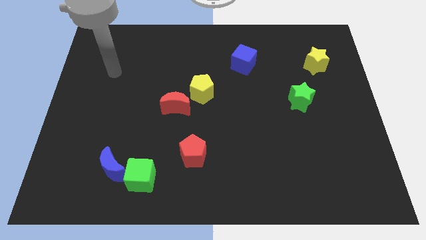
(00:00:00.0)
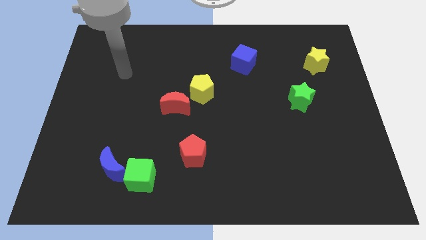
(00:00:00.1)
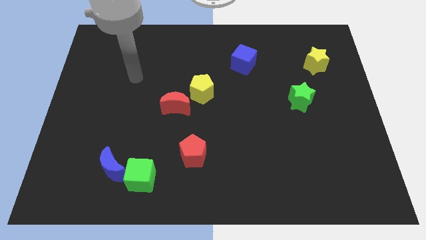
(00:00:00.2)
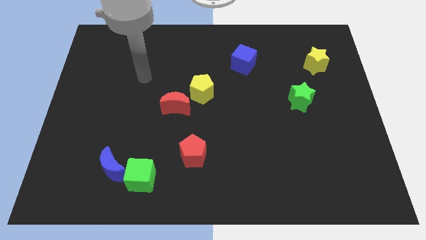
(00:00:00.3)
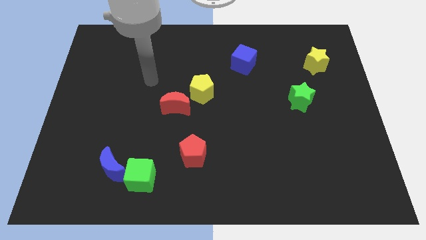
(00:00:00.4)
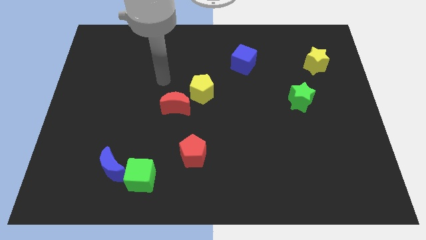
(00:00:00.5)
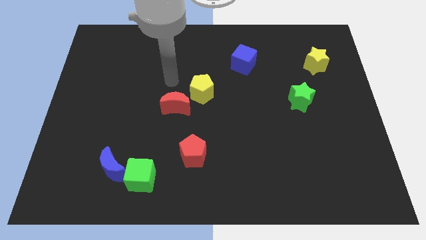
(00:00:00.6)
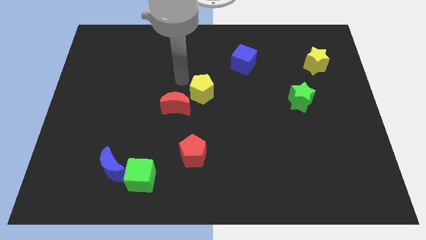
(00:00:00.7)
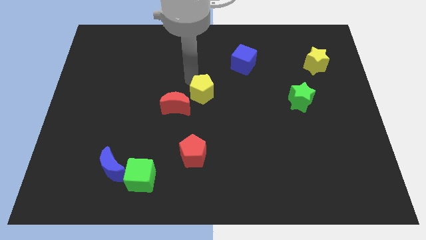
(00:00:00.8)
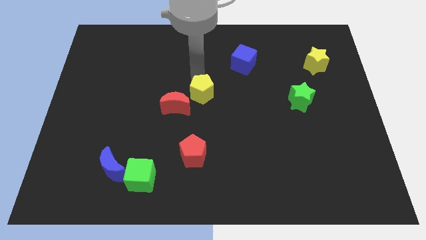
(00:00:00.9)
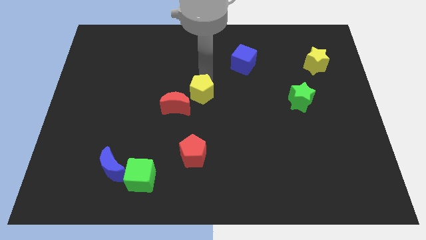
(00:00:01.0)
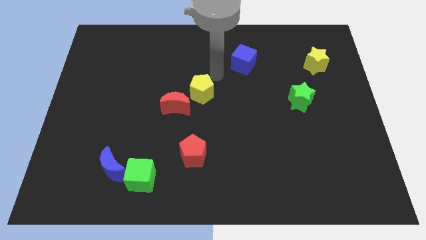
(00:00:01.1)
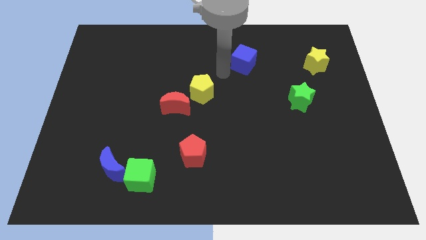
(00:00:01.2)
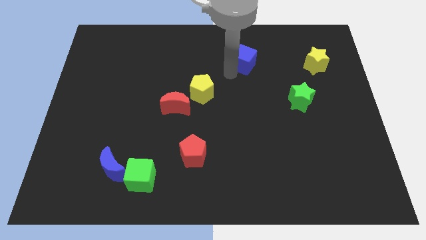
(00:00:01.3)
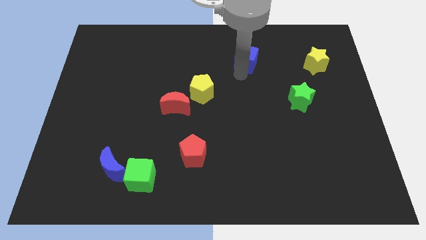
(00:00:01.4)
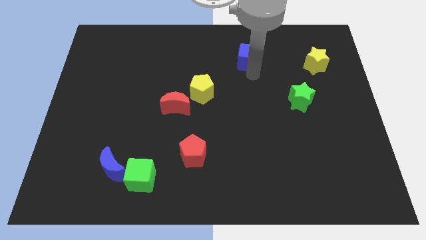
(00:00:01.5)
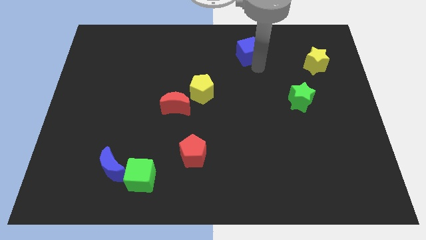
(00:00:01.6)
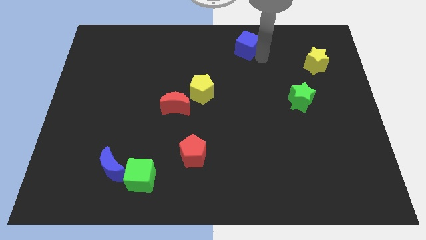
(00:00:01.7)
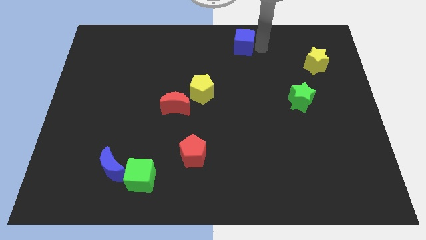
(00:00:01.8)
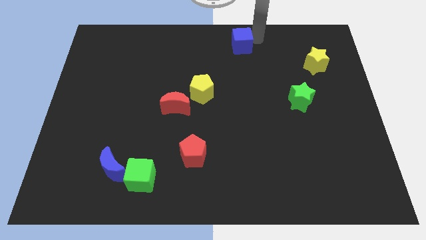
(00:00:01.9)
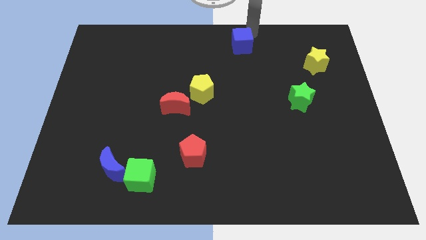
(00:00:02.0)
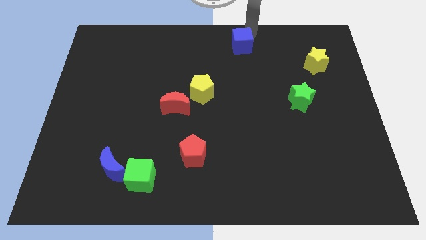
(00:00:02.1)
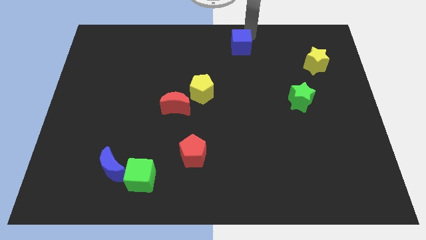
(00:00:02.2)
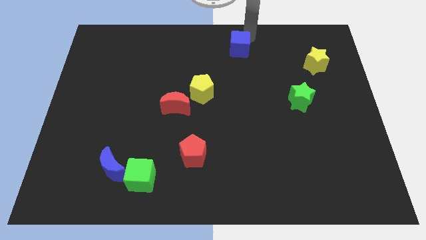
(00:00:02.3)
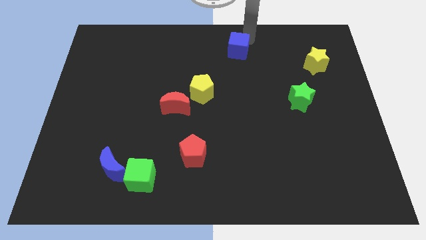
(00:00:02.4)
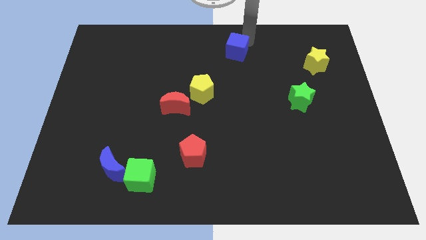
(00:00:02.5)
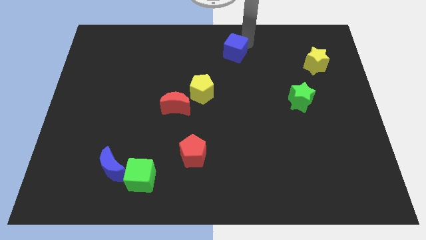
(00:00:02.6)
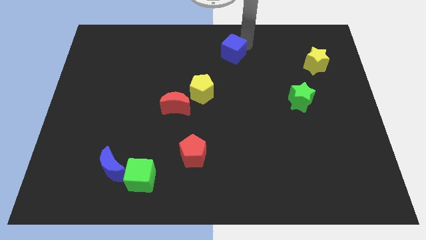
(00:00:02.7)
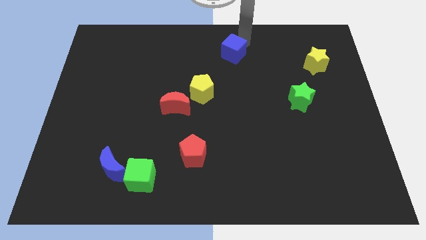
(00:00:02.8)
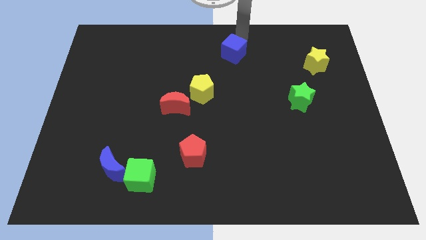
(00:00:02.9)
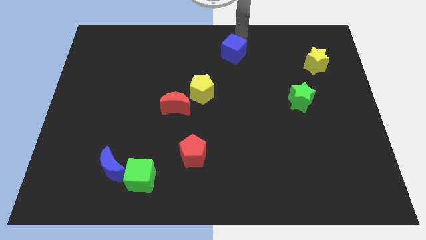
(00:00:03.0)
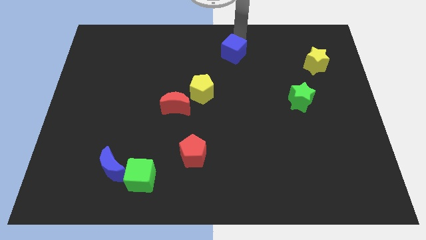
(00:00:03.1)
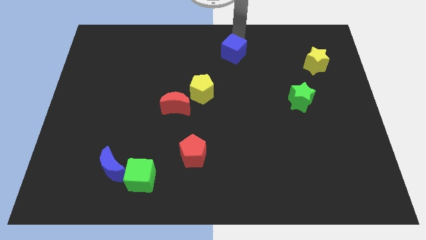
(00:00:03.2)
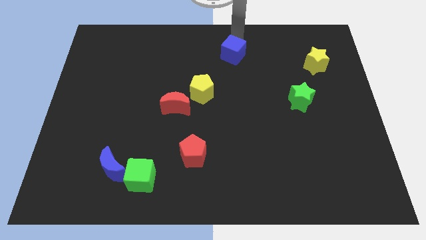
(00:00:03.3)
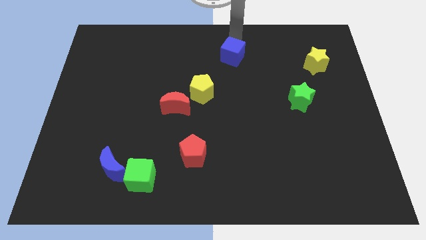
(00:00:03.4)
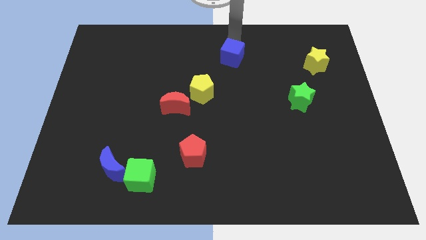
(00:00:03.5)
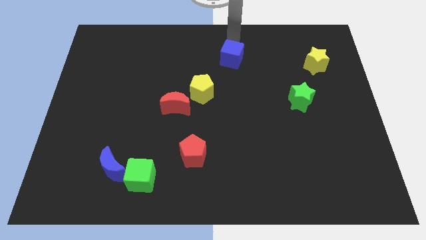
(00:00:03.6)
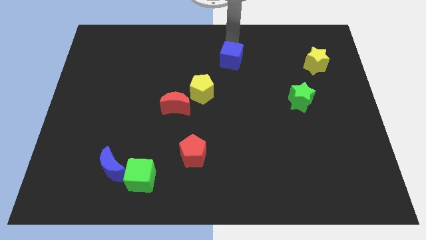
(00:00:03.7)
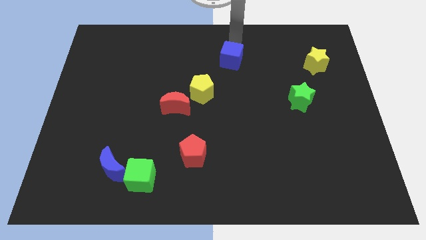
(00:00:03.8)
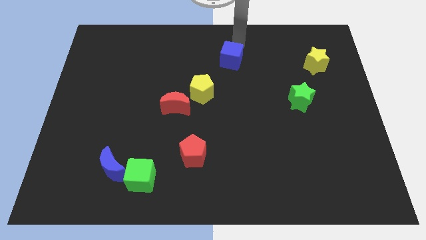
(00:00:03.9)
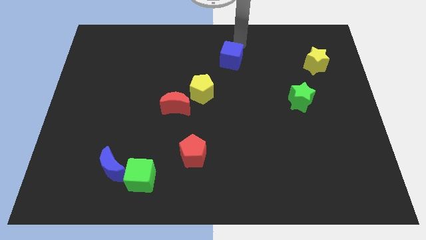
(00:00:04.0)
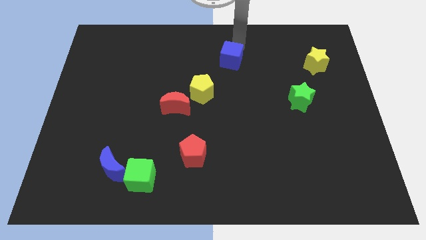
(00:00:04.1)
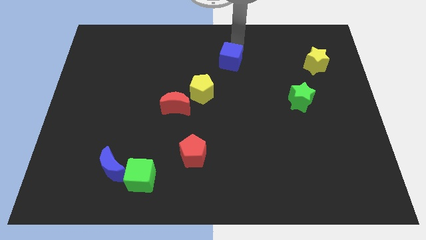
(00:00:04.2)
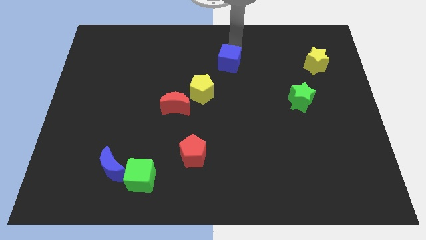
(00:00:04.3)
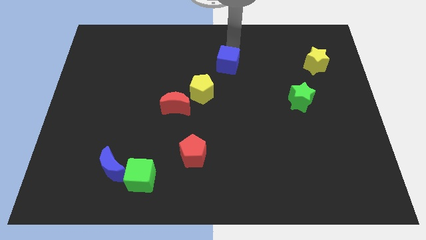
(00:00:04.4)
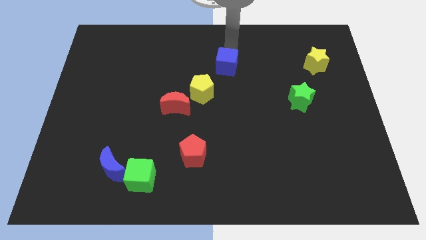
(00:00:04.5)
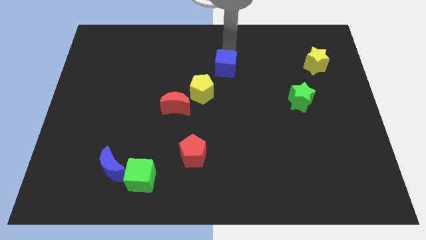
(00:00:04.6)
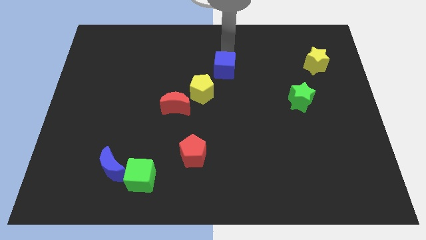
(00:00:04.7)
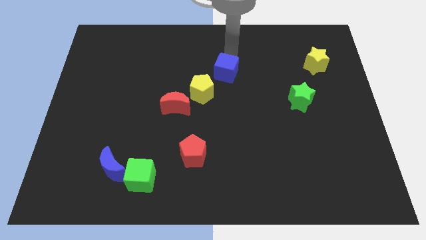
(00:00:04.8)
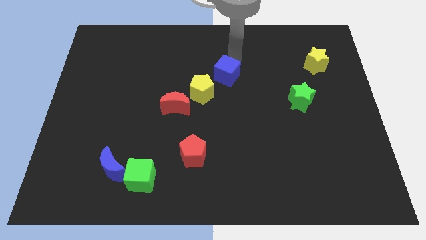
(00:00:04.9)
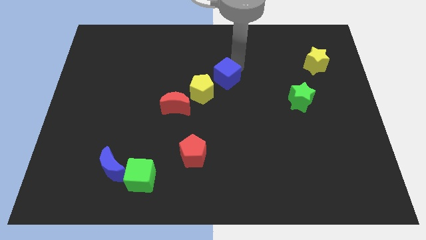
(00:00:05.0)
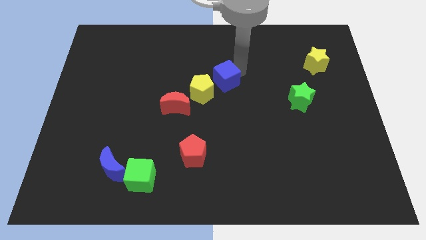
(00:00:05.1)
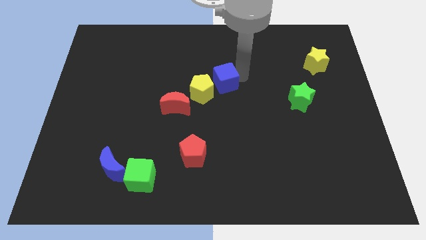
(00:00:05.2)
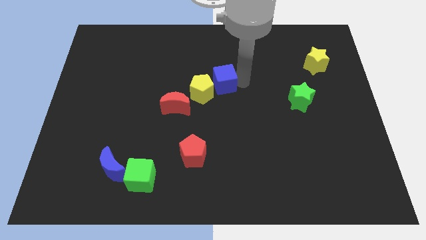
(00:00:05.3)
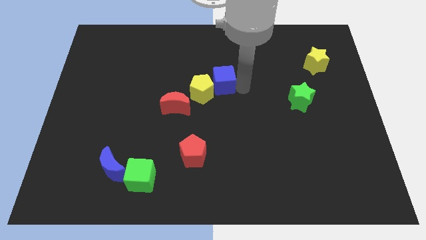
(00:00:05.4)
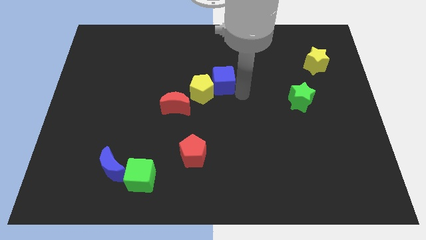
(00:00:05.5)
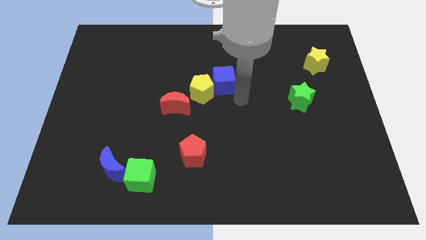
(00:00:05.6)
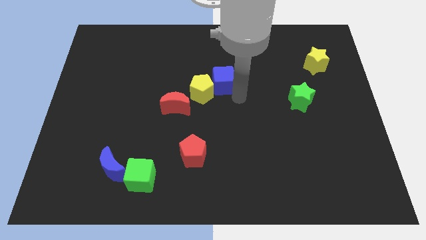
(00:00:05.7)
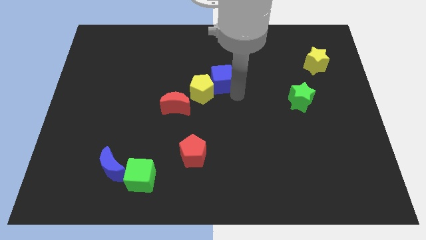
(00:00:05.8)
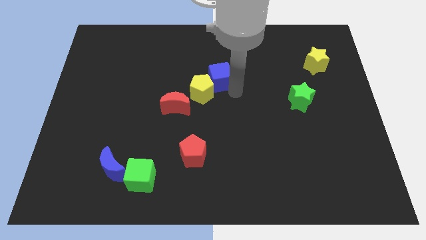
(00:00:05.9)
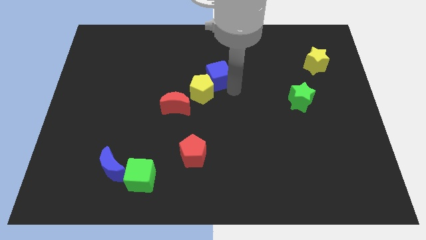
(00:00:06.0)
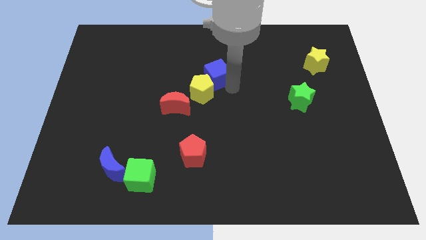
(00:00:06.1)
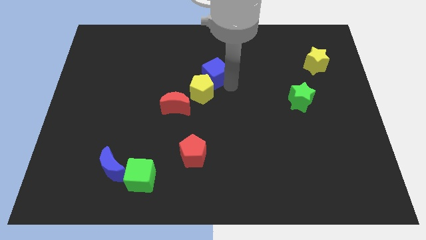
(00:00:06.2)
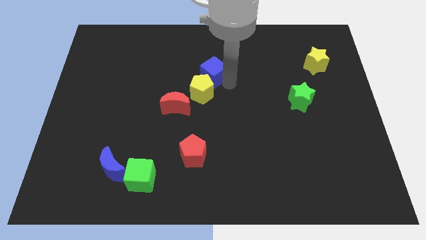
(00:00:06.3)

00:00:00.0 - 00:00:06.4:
slide the blue cube left slightly

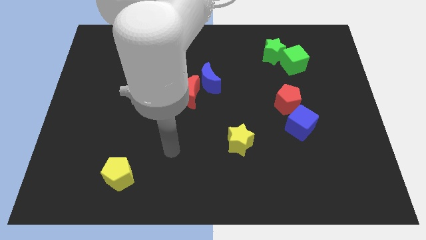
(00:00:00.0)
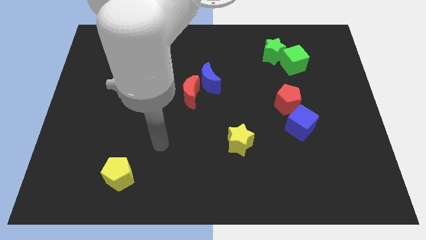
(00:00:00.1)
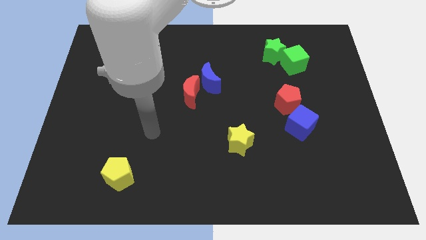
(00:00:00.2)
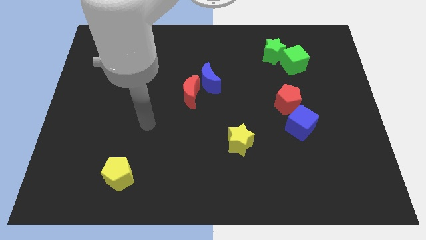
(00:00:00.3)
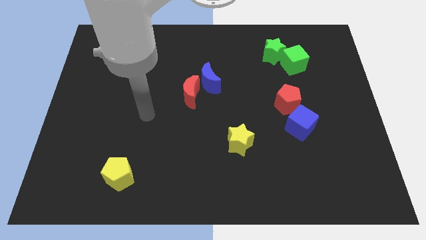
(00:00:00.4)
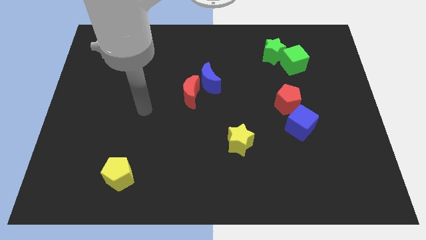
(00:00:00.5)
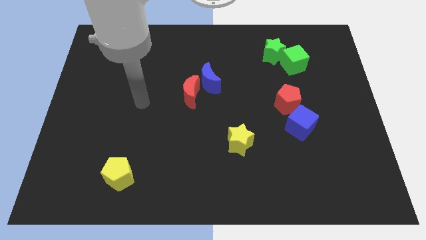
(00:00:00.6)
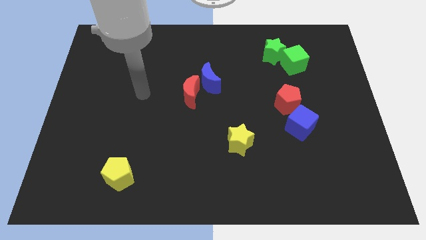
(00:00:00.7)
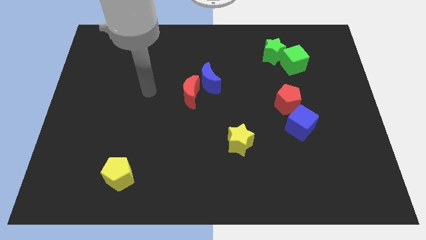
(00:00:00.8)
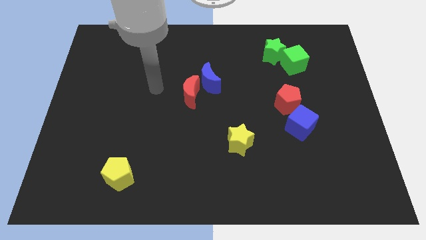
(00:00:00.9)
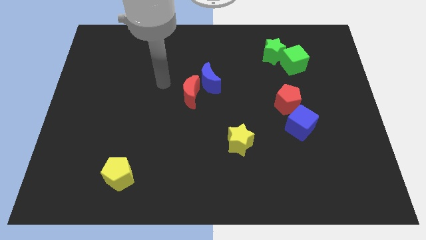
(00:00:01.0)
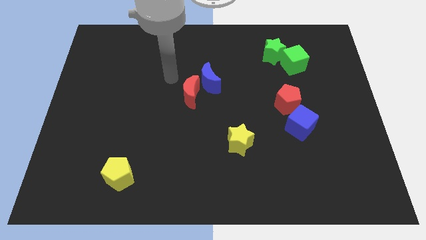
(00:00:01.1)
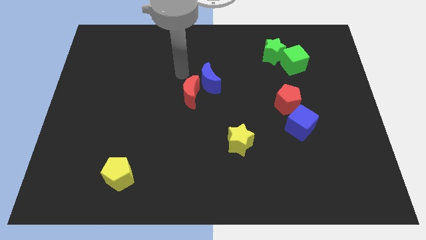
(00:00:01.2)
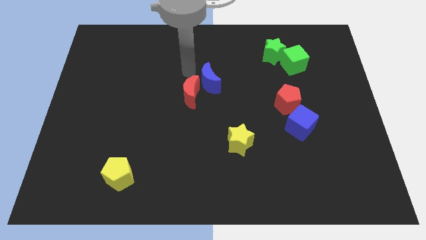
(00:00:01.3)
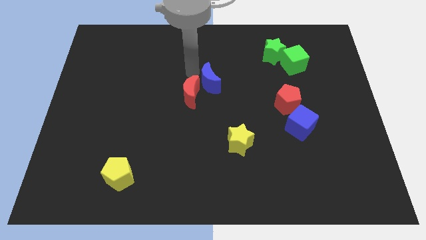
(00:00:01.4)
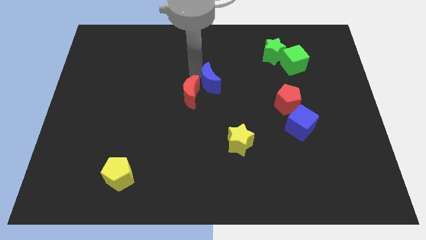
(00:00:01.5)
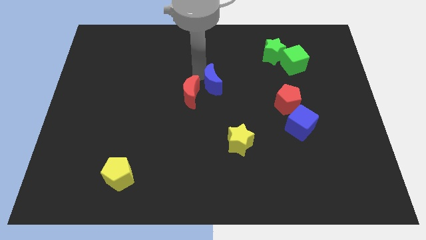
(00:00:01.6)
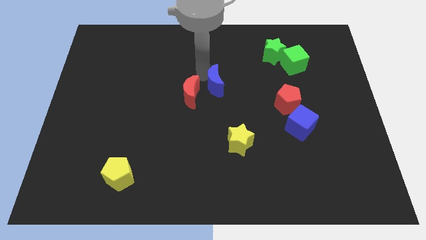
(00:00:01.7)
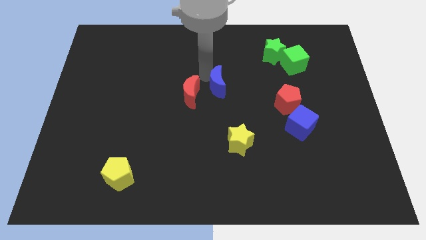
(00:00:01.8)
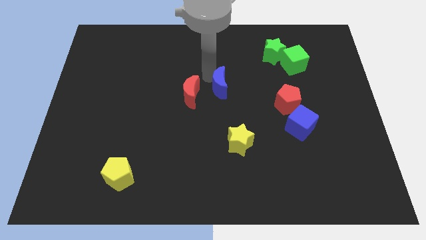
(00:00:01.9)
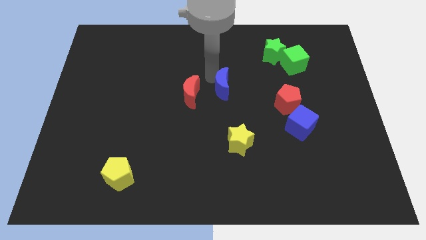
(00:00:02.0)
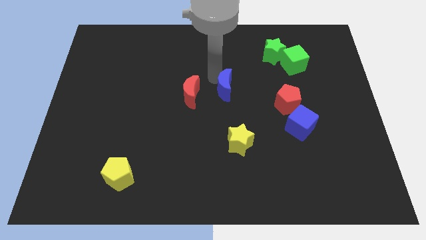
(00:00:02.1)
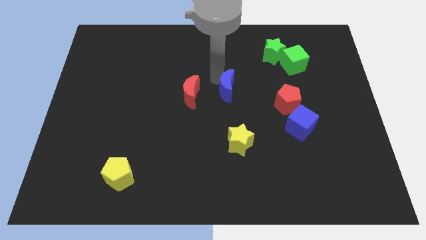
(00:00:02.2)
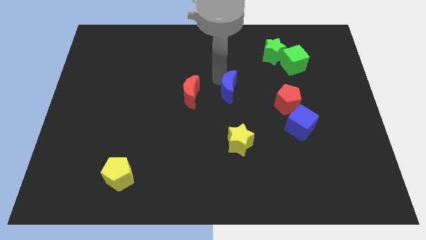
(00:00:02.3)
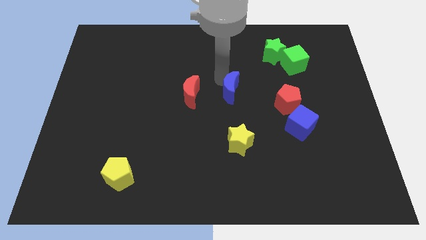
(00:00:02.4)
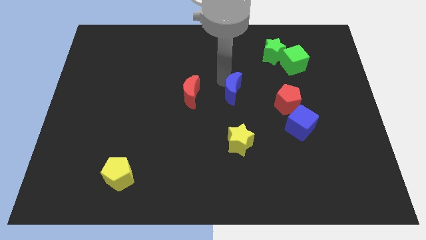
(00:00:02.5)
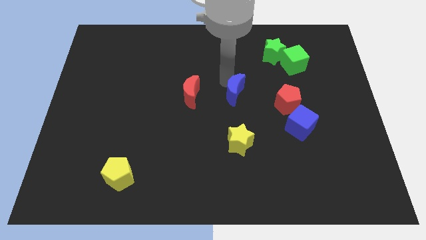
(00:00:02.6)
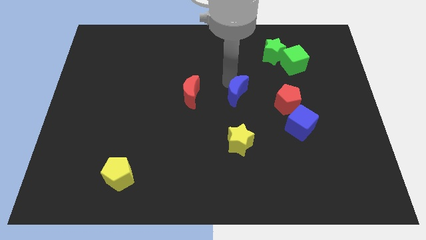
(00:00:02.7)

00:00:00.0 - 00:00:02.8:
slide the blue moon downwards and to the right diagonally slightly
